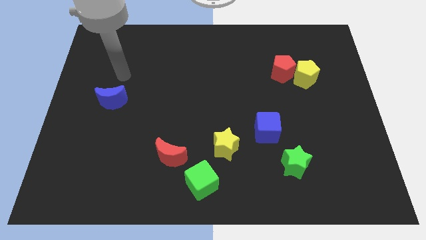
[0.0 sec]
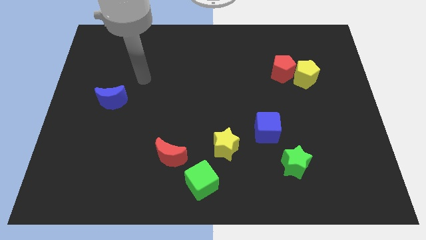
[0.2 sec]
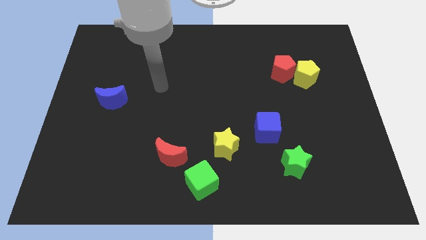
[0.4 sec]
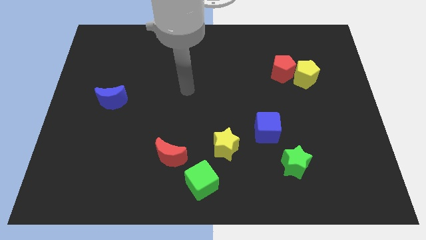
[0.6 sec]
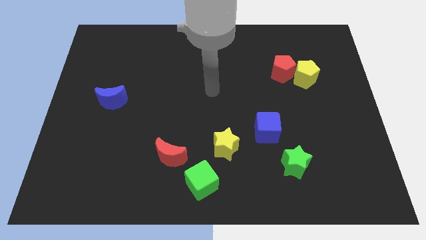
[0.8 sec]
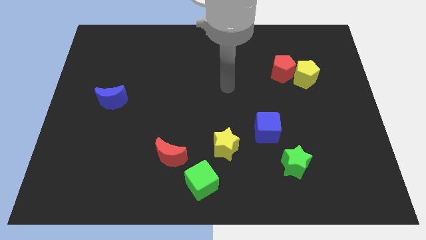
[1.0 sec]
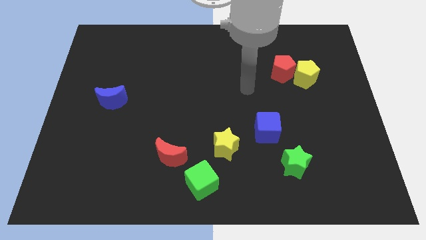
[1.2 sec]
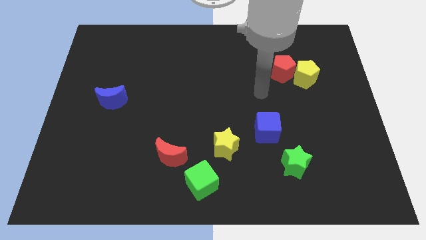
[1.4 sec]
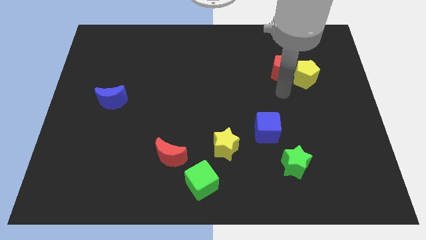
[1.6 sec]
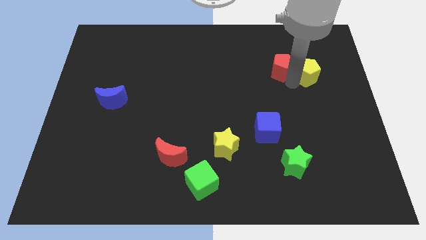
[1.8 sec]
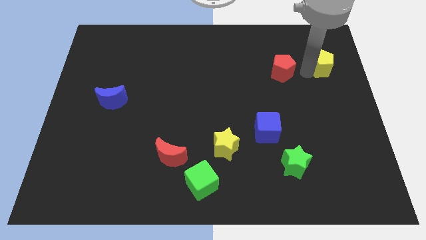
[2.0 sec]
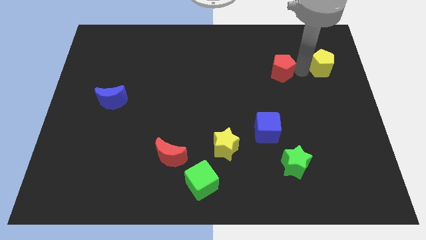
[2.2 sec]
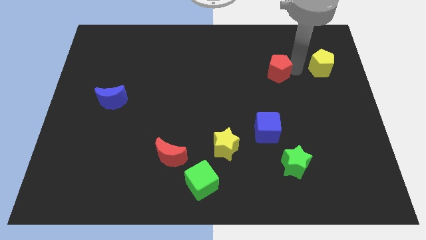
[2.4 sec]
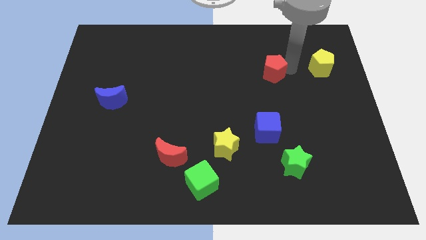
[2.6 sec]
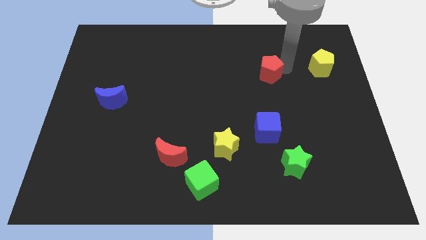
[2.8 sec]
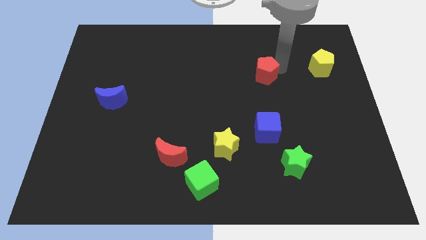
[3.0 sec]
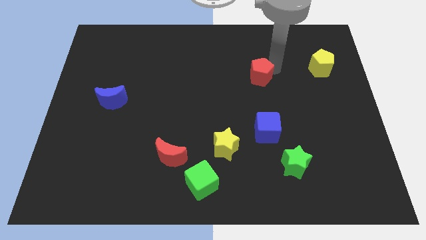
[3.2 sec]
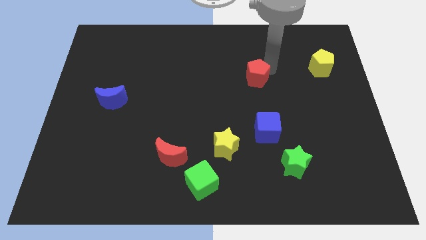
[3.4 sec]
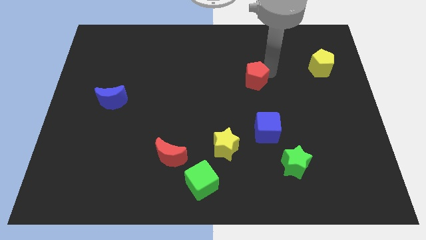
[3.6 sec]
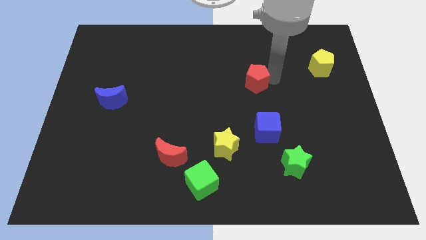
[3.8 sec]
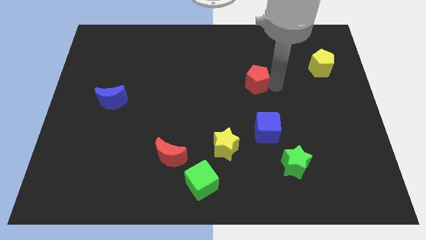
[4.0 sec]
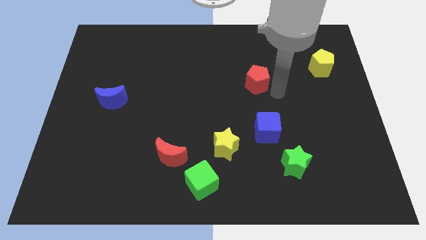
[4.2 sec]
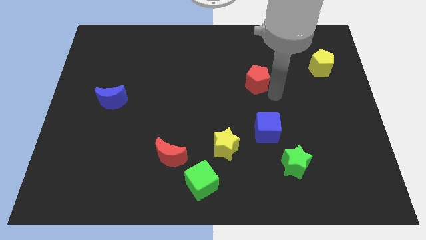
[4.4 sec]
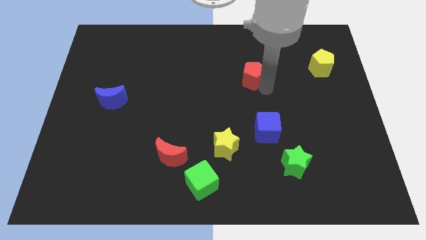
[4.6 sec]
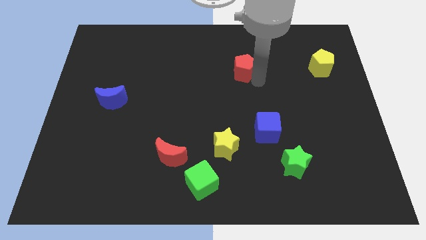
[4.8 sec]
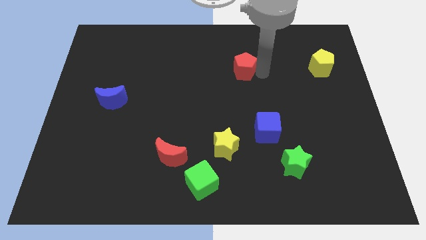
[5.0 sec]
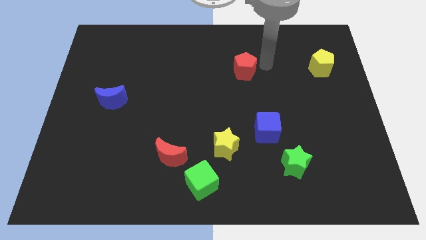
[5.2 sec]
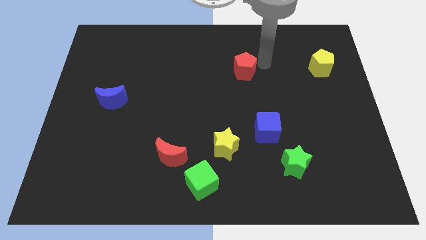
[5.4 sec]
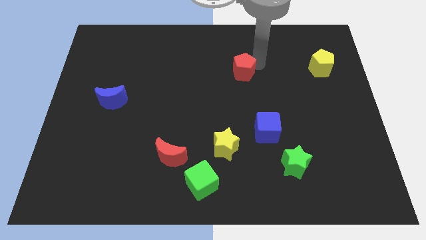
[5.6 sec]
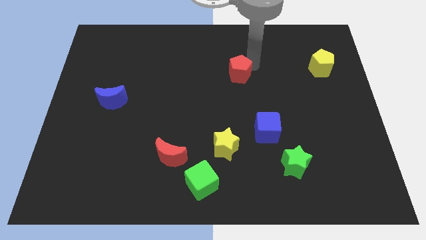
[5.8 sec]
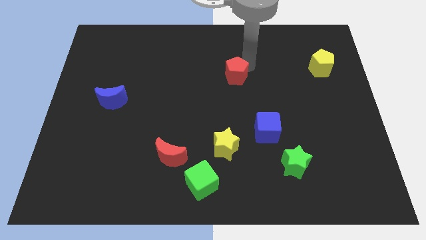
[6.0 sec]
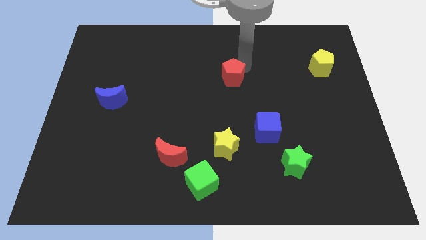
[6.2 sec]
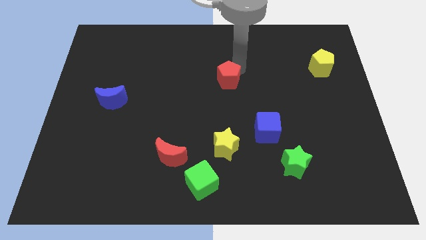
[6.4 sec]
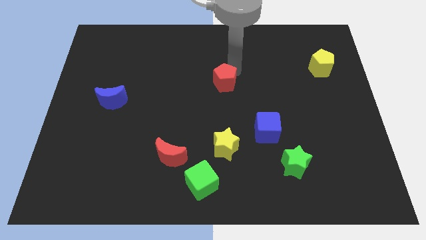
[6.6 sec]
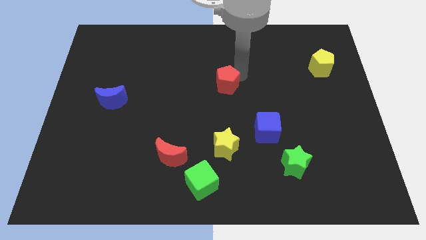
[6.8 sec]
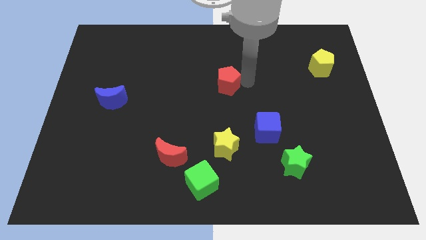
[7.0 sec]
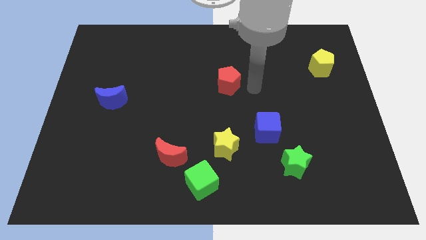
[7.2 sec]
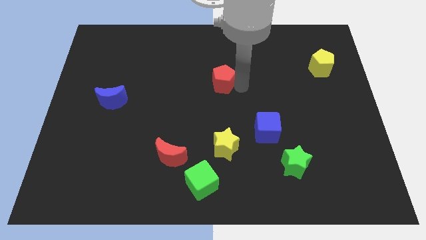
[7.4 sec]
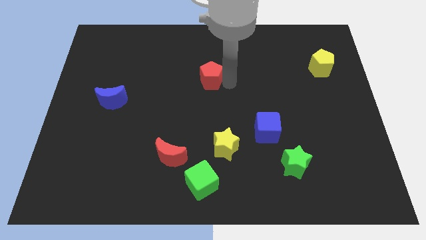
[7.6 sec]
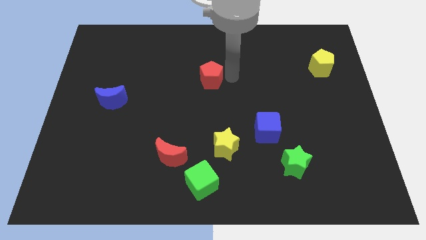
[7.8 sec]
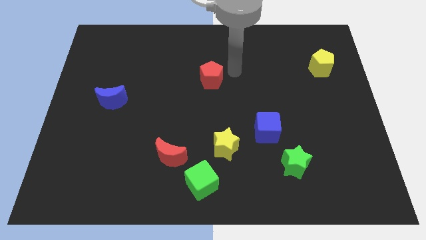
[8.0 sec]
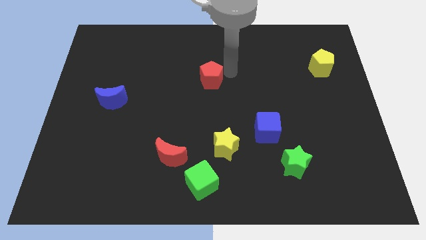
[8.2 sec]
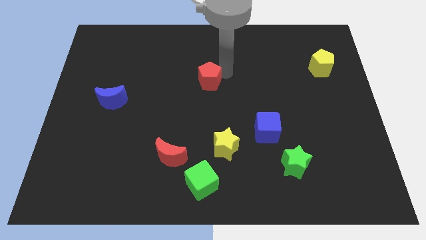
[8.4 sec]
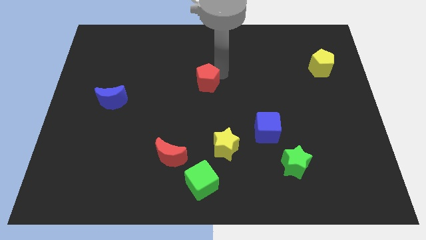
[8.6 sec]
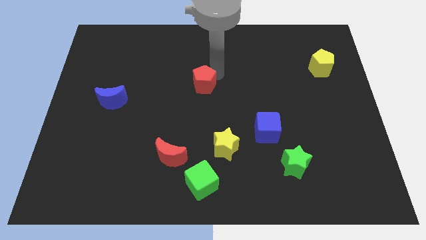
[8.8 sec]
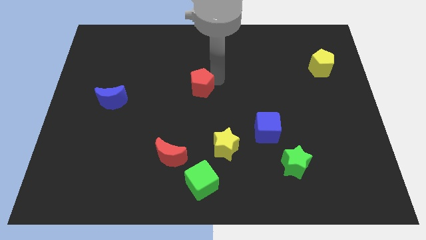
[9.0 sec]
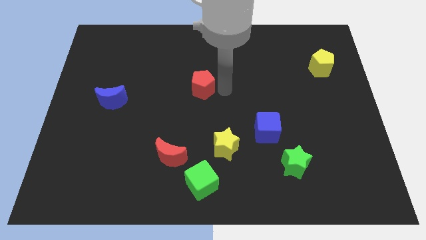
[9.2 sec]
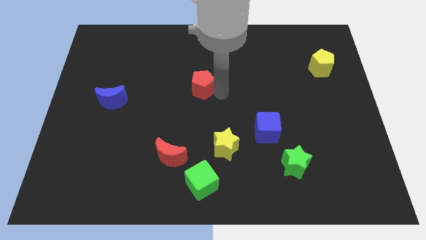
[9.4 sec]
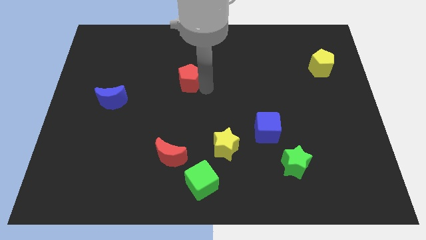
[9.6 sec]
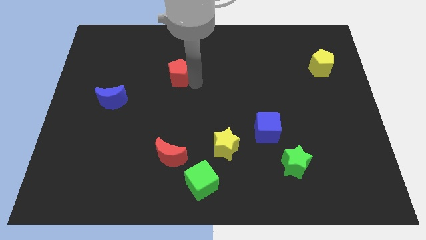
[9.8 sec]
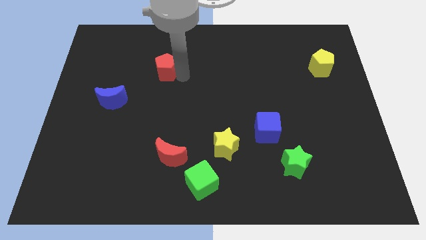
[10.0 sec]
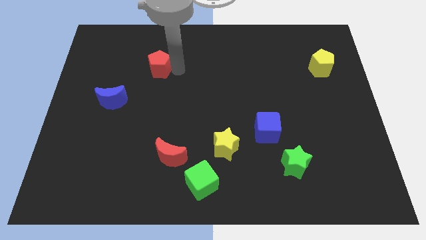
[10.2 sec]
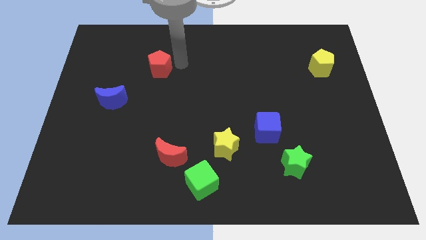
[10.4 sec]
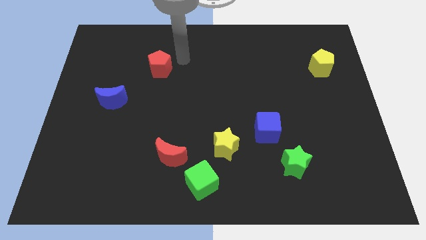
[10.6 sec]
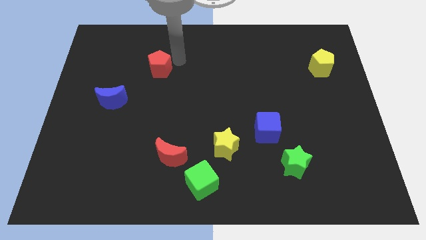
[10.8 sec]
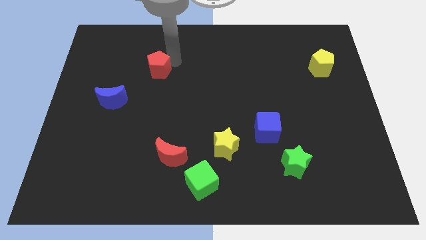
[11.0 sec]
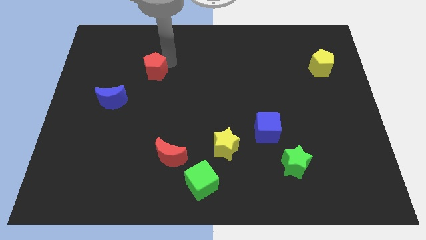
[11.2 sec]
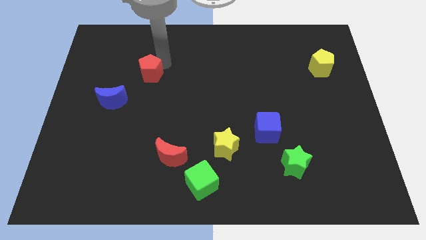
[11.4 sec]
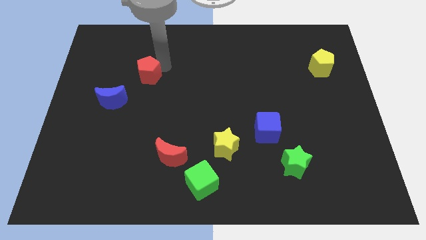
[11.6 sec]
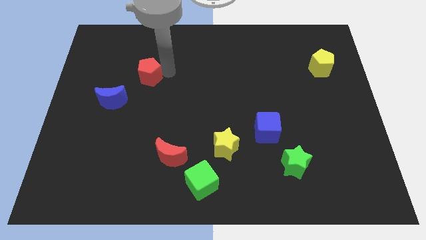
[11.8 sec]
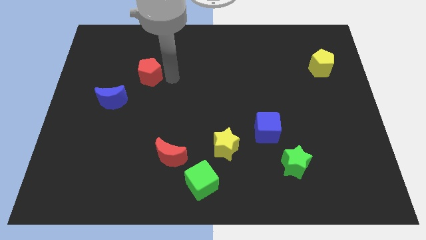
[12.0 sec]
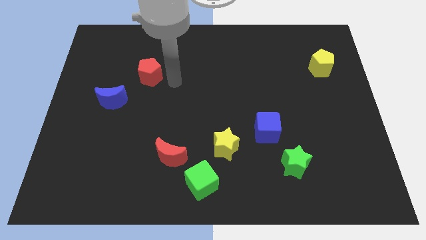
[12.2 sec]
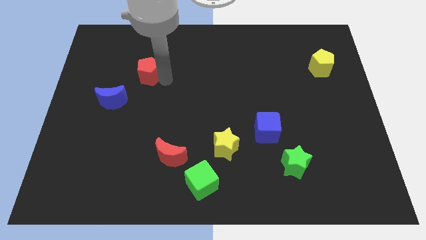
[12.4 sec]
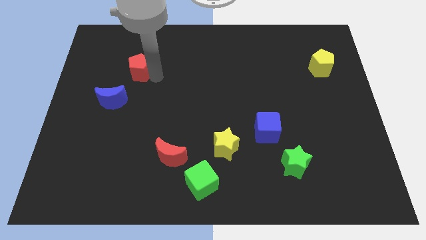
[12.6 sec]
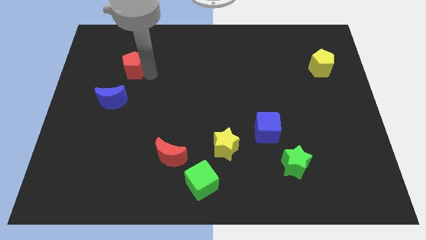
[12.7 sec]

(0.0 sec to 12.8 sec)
push the red pentagon to the top side of the blue moon

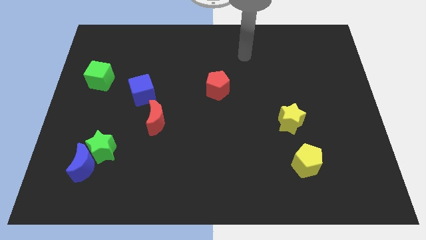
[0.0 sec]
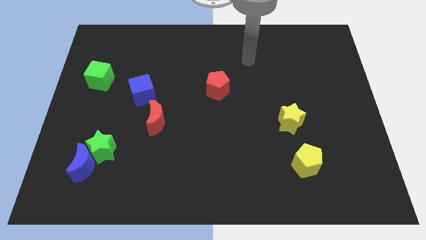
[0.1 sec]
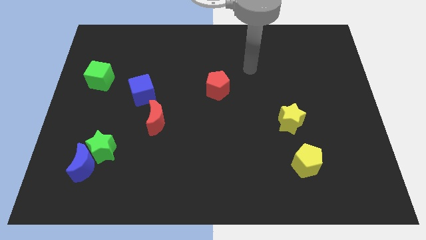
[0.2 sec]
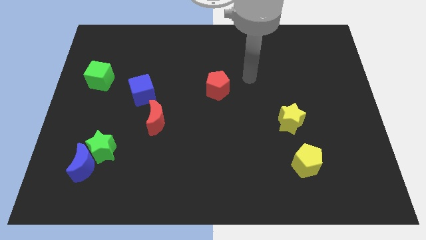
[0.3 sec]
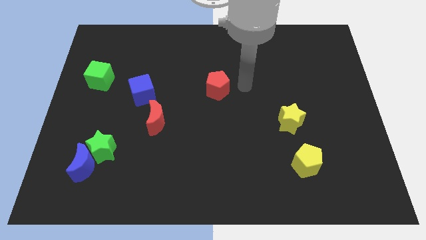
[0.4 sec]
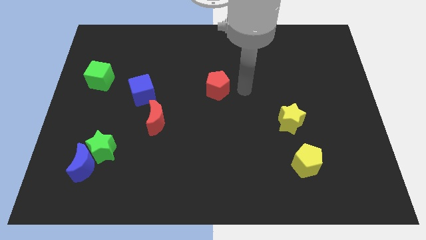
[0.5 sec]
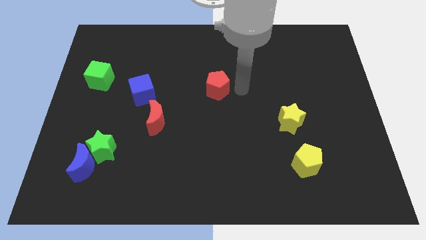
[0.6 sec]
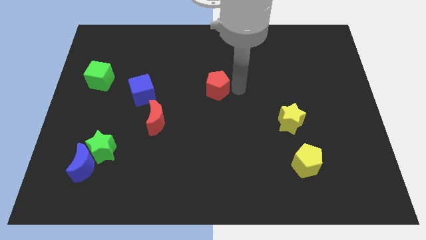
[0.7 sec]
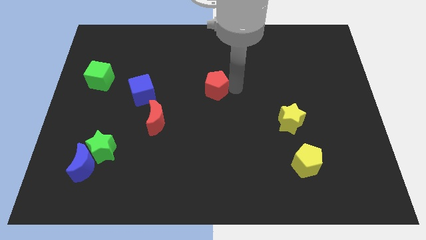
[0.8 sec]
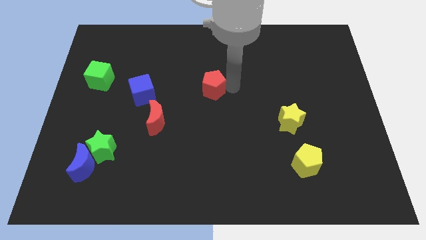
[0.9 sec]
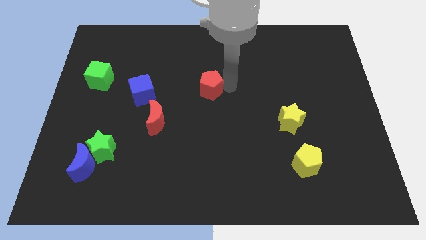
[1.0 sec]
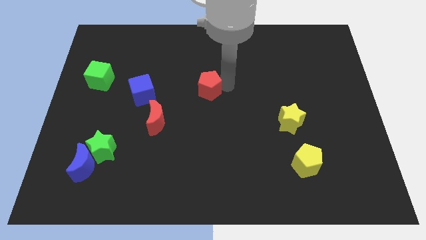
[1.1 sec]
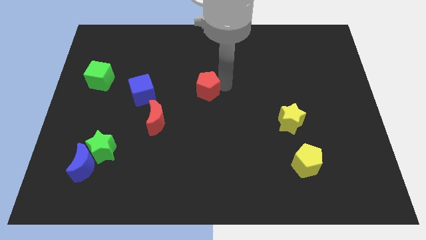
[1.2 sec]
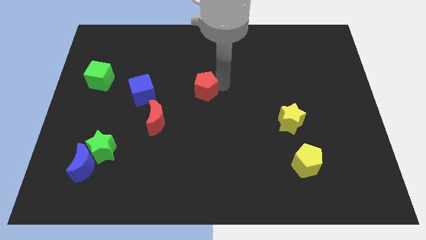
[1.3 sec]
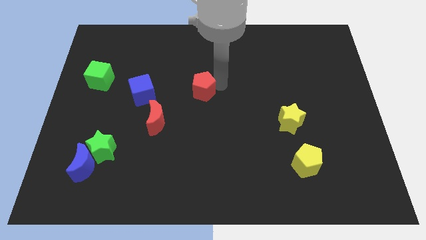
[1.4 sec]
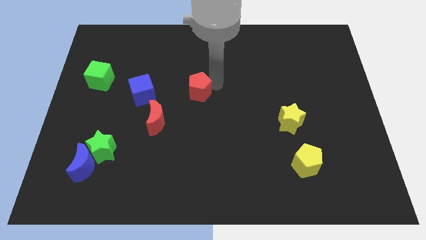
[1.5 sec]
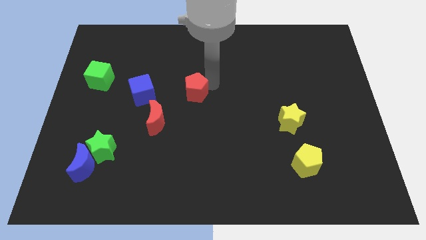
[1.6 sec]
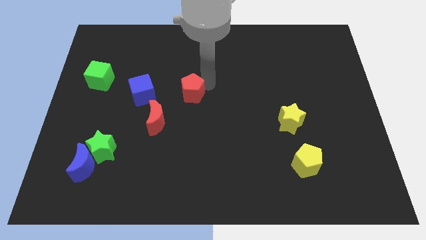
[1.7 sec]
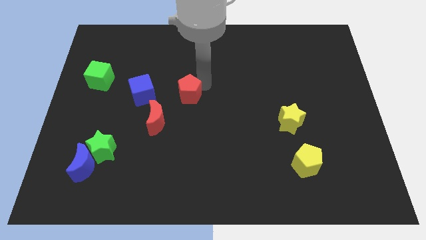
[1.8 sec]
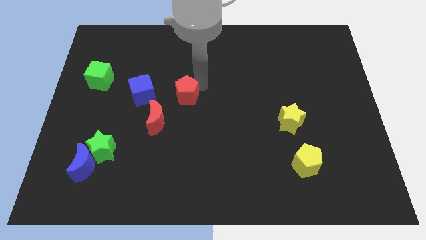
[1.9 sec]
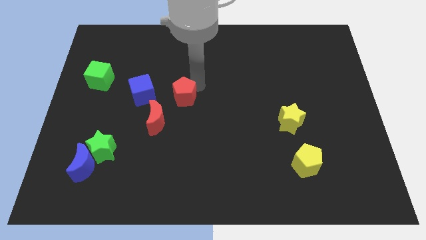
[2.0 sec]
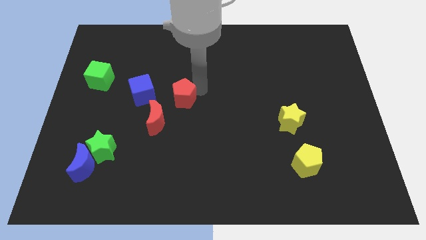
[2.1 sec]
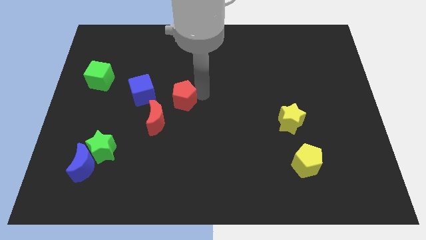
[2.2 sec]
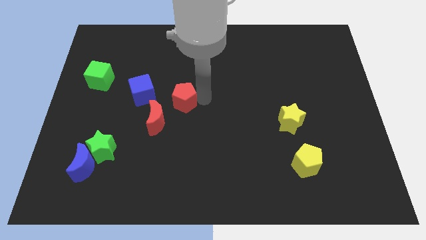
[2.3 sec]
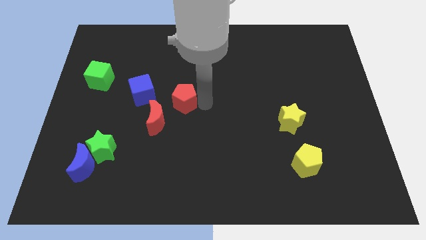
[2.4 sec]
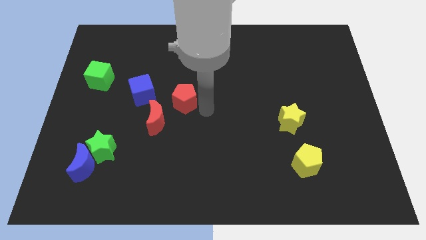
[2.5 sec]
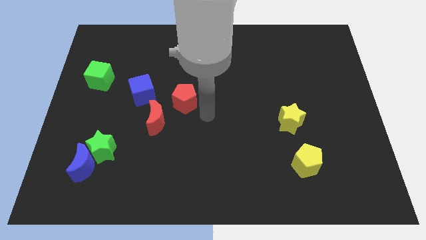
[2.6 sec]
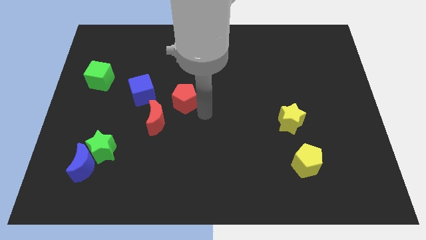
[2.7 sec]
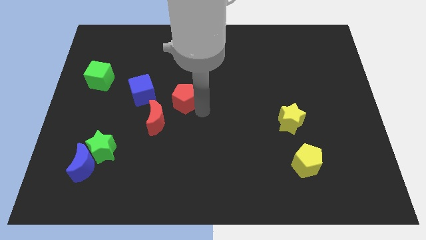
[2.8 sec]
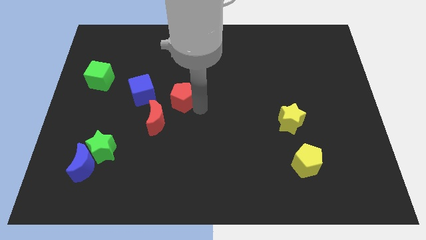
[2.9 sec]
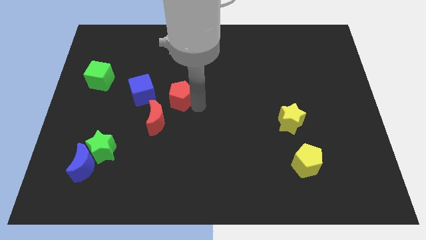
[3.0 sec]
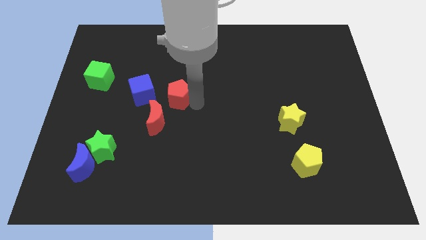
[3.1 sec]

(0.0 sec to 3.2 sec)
put the red pentagon to the top of the red moon
